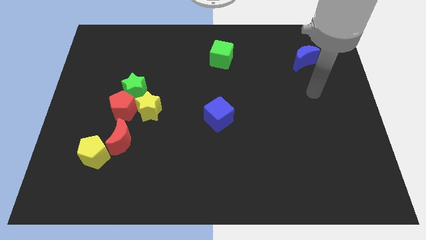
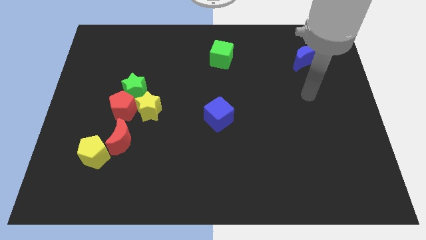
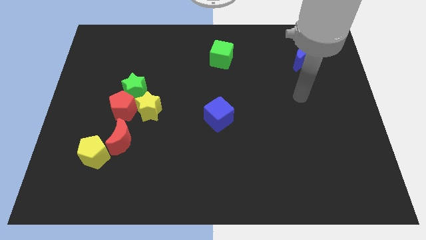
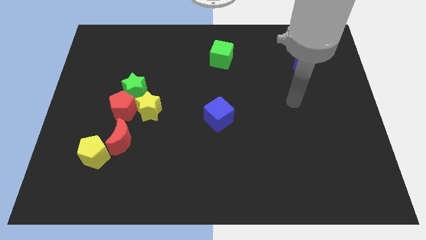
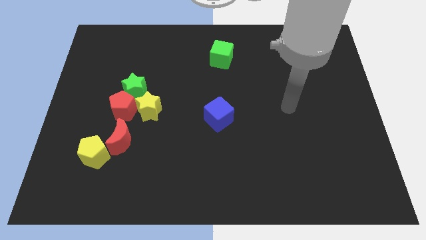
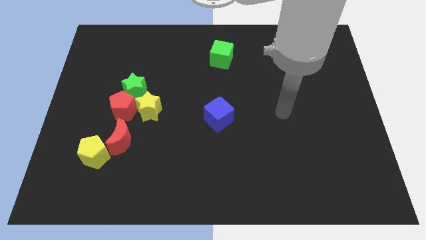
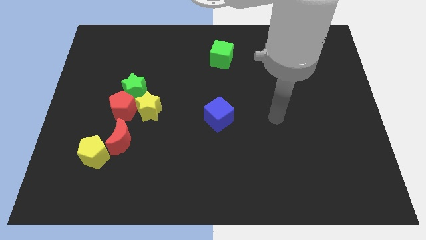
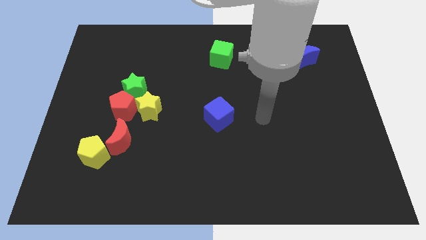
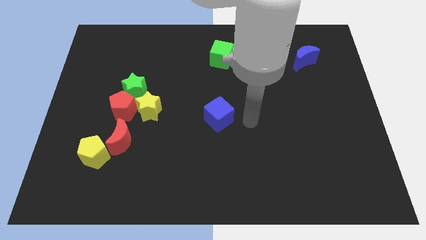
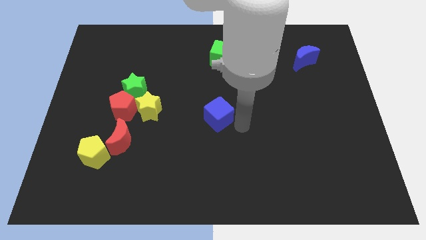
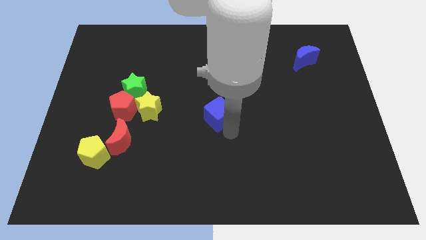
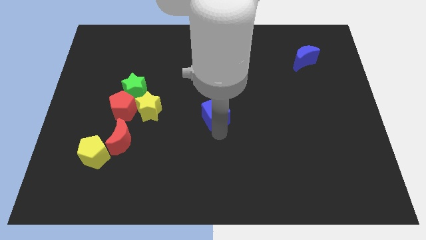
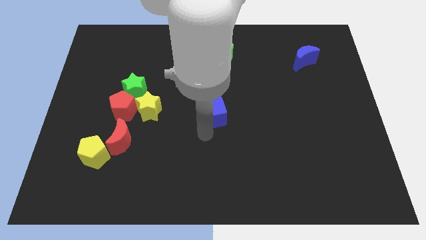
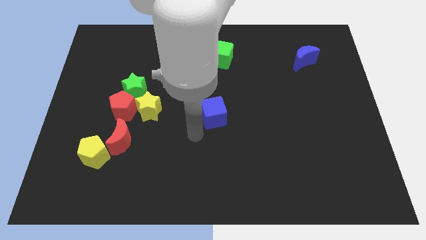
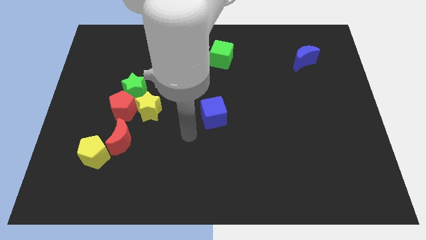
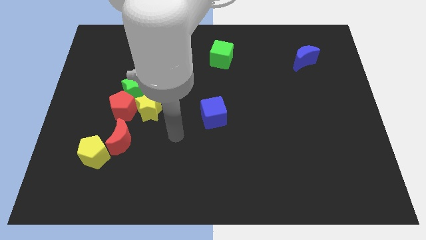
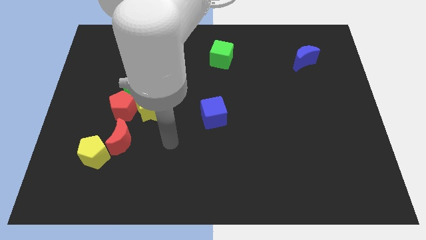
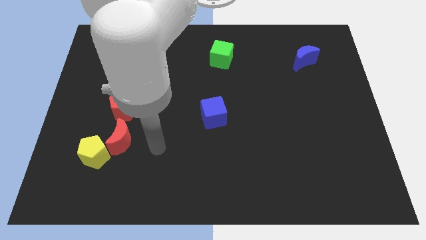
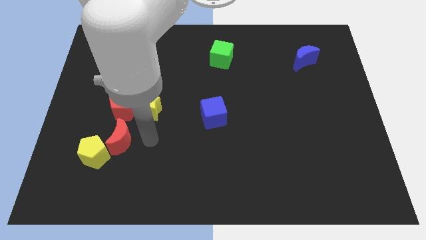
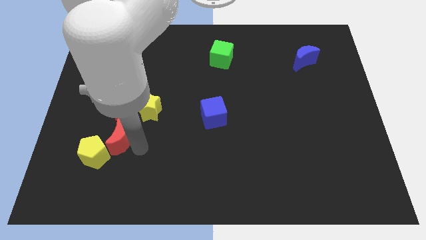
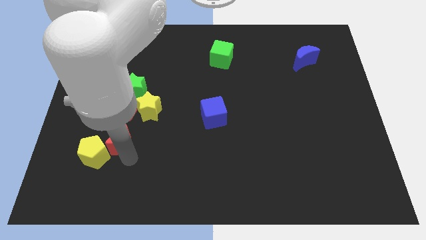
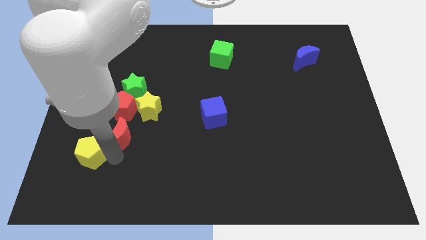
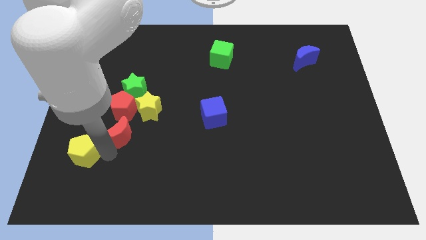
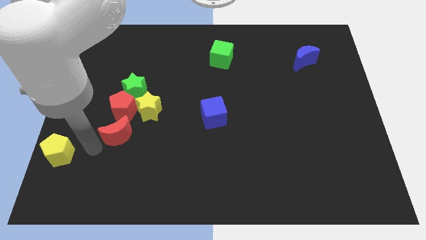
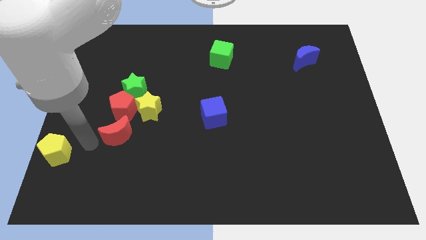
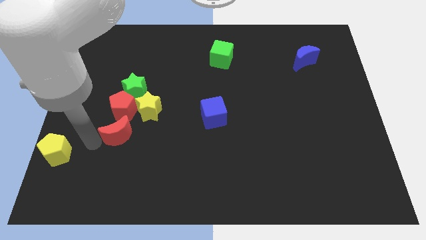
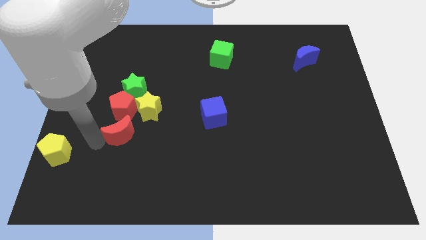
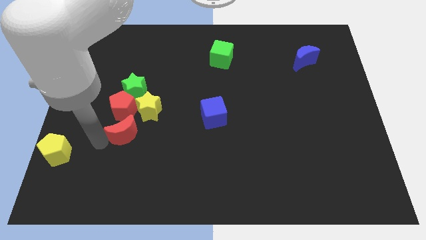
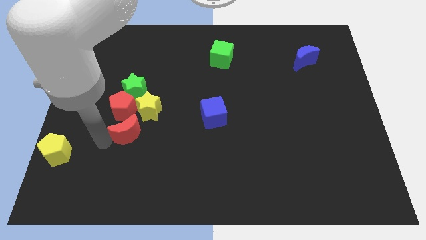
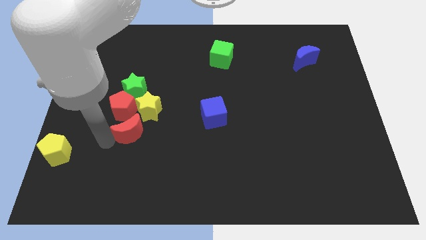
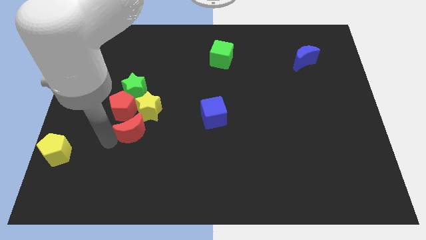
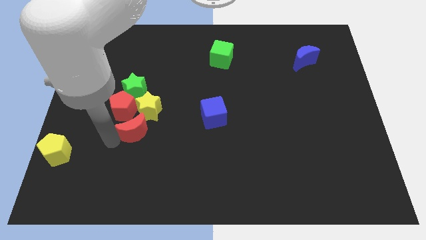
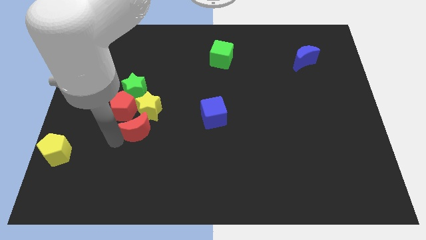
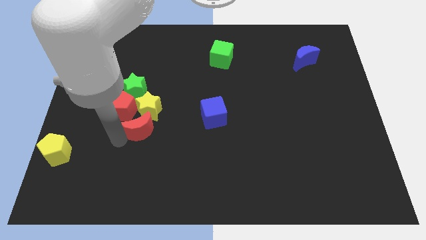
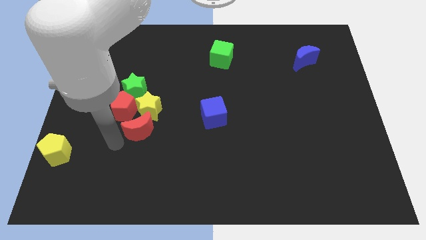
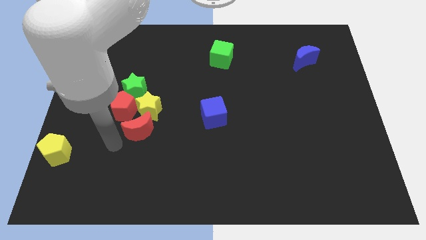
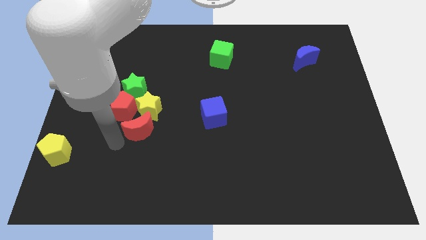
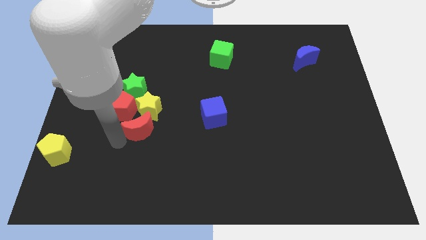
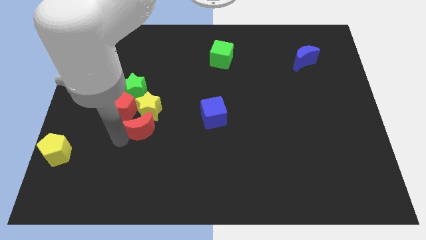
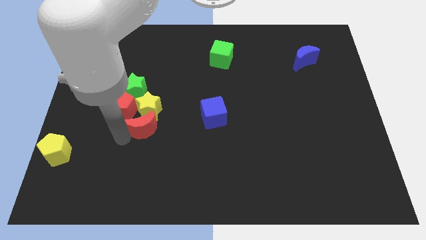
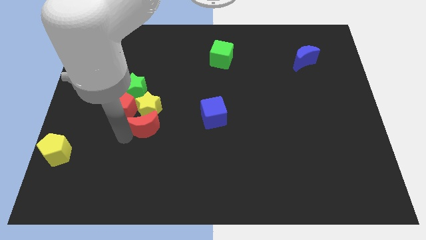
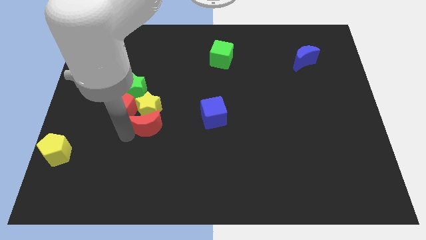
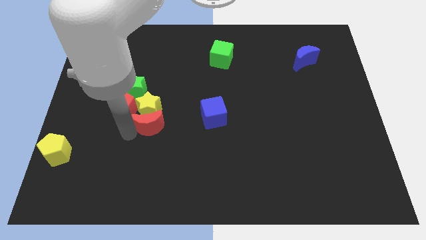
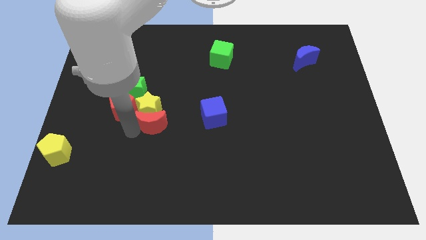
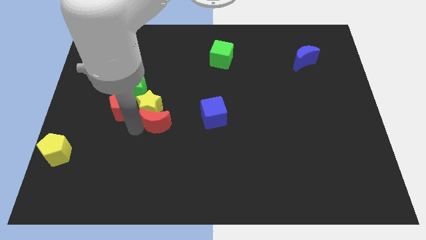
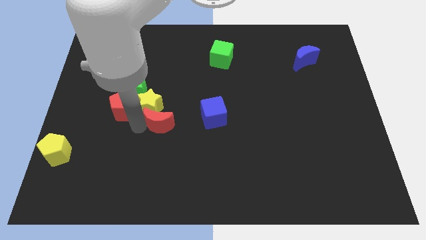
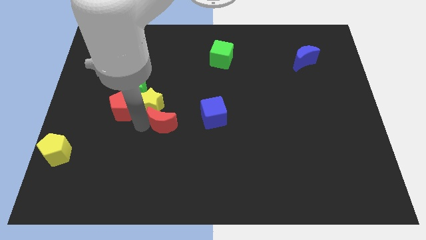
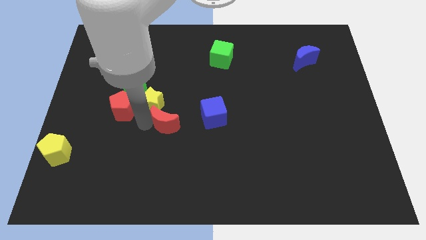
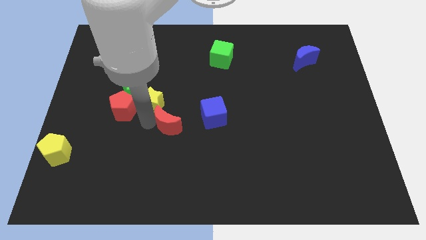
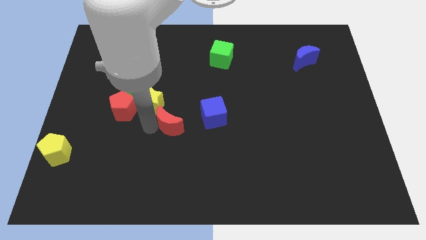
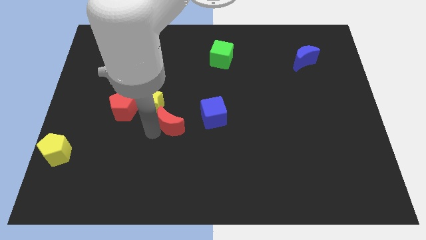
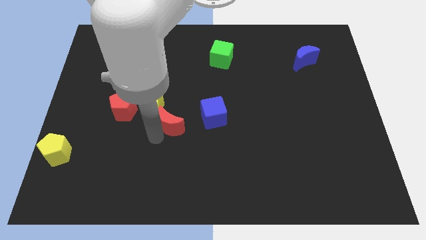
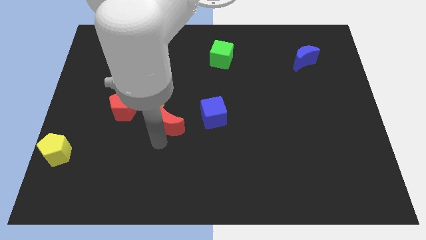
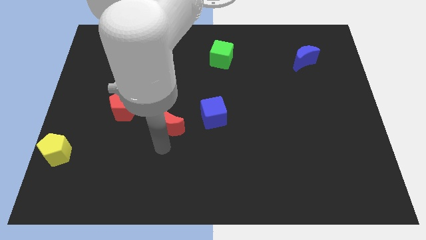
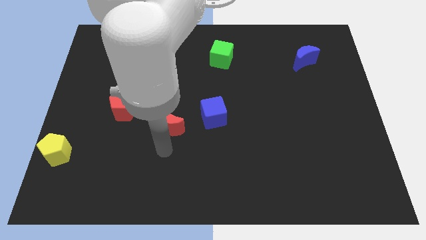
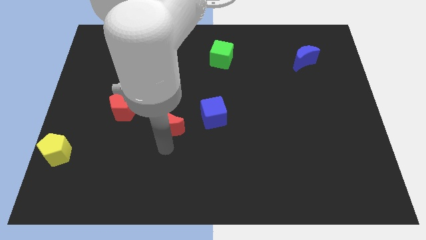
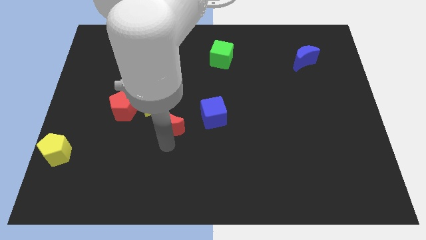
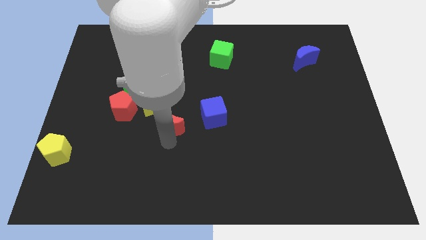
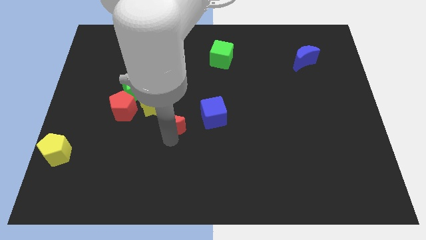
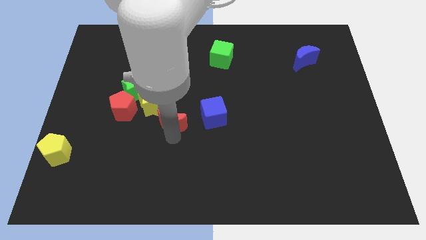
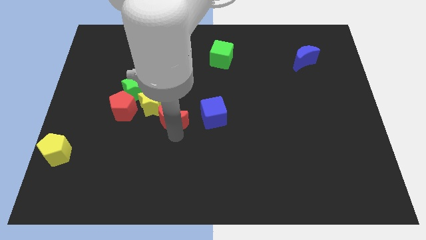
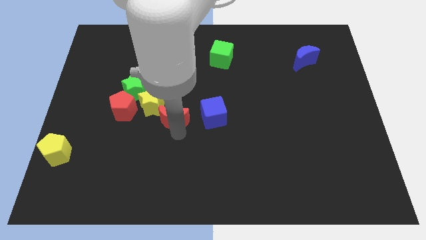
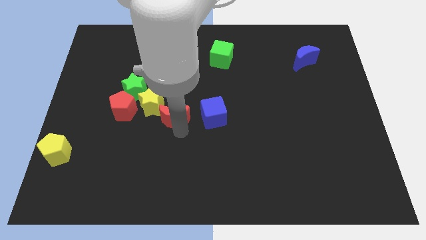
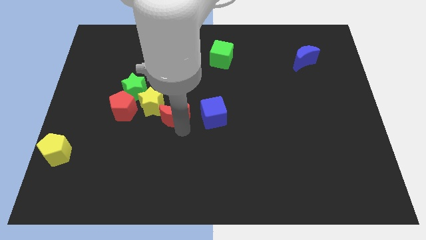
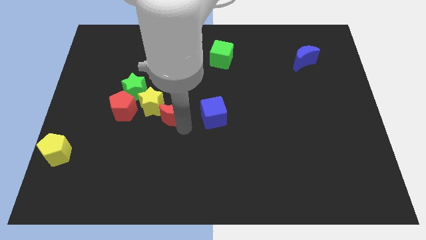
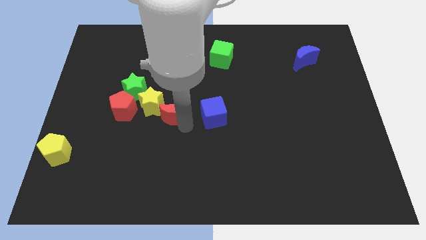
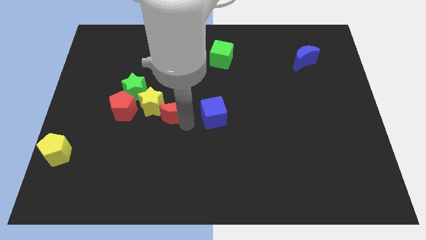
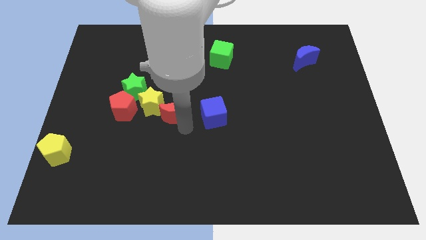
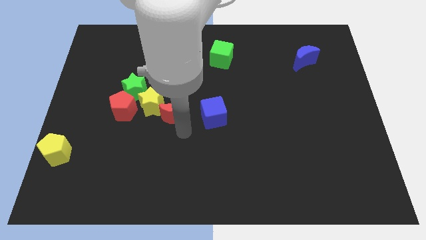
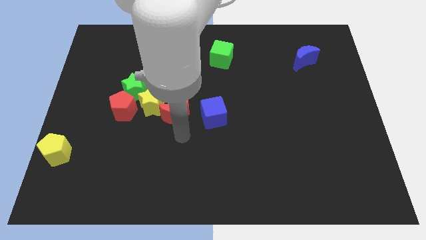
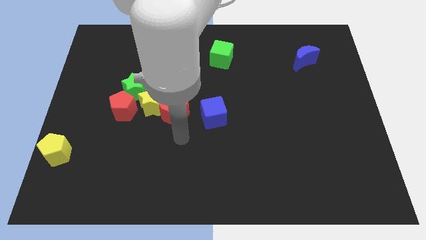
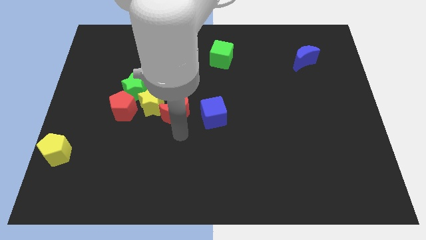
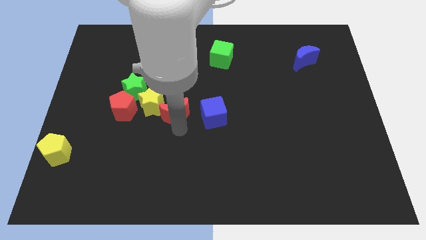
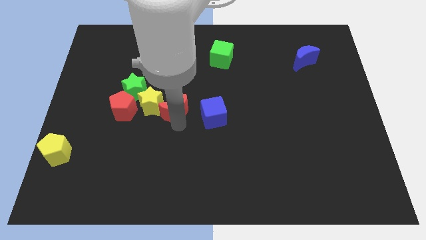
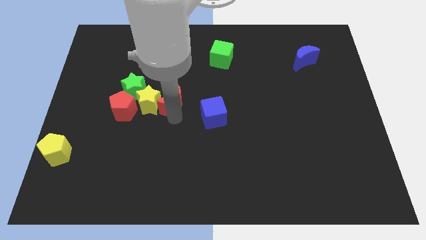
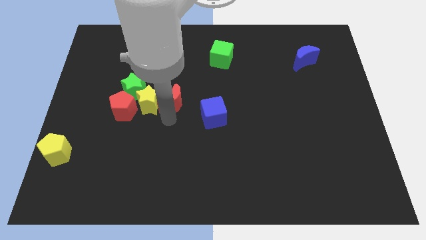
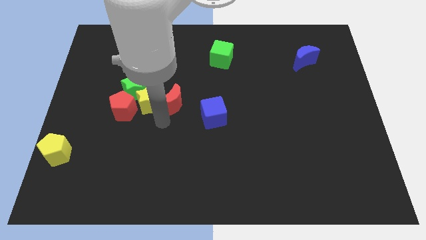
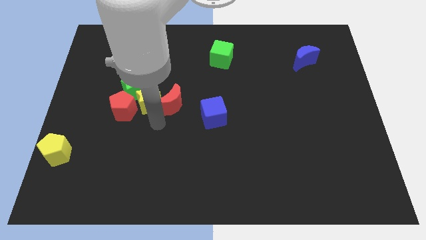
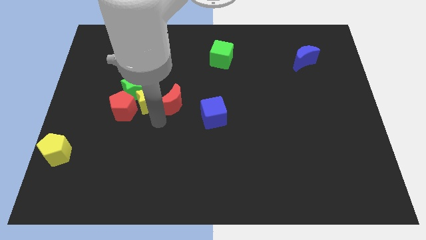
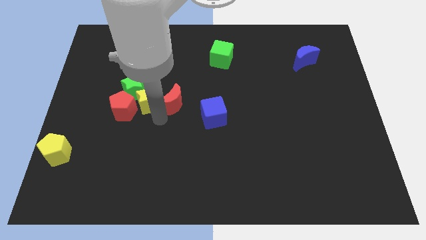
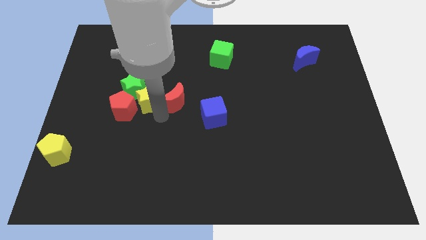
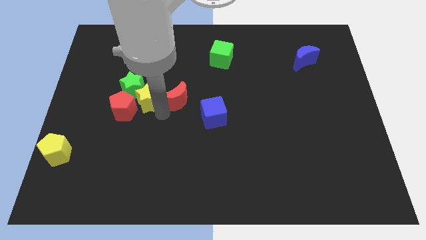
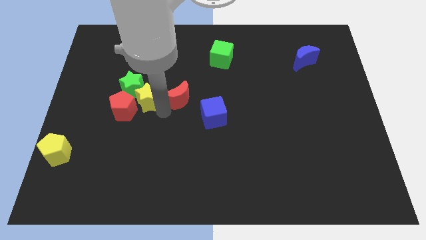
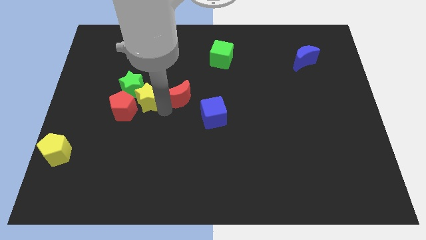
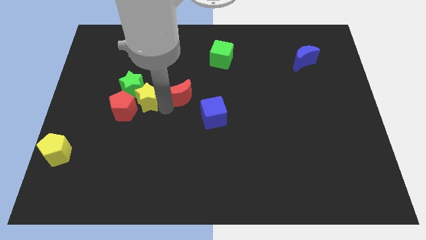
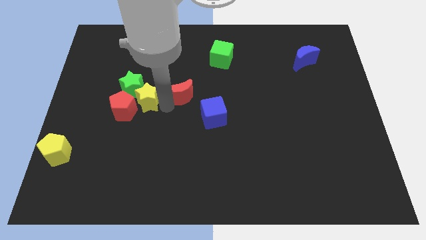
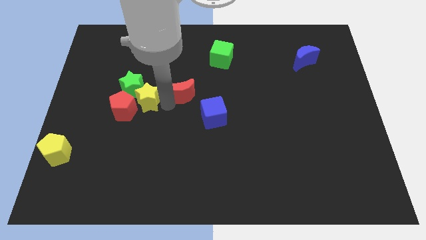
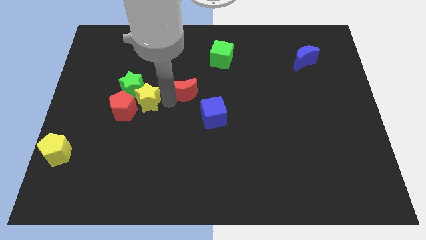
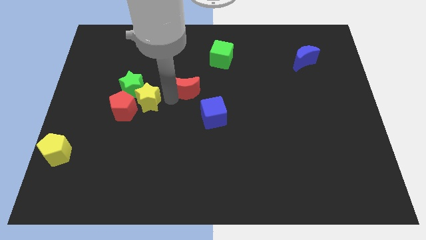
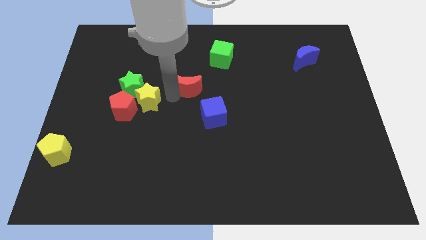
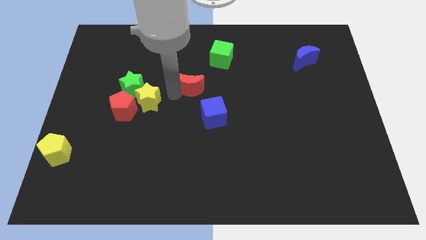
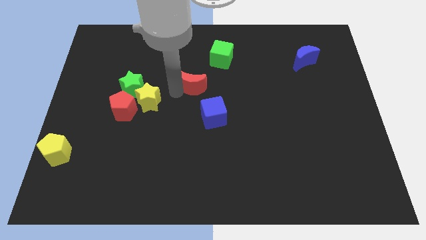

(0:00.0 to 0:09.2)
push the red moon to the bottom left of the green cube
